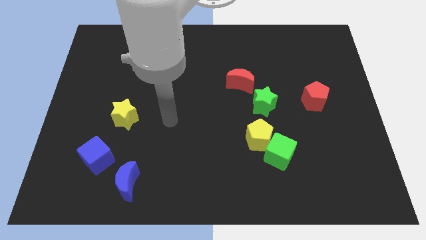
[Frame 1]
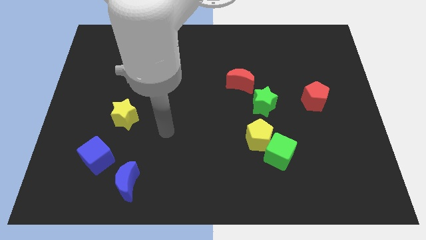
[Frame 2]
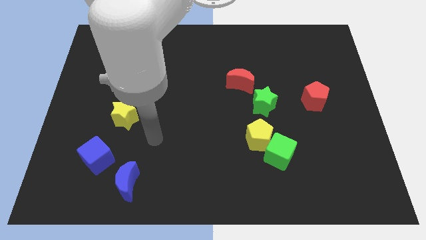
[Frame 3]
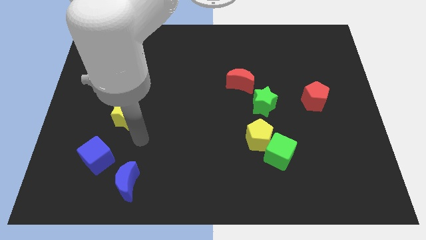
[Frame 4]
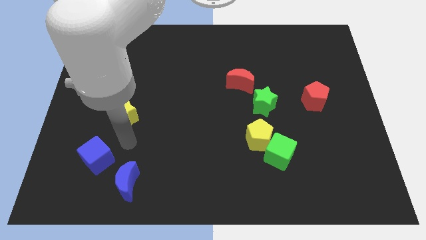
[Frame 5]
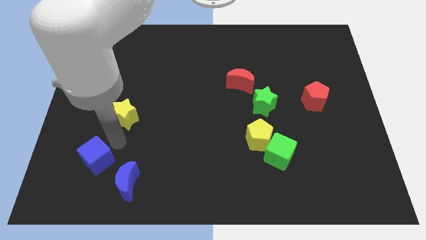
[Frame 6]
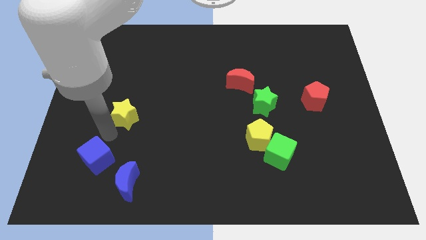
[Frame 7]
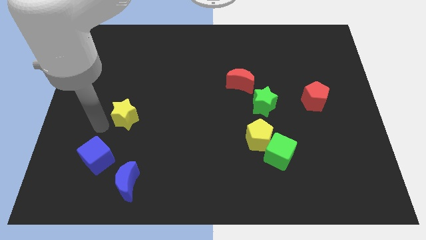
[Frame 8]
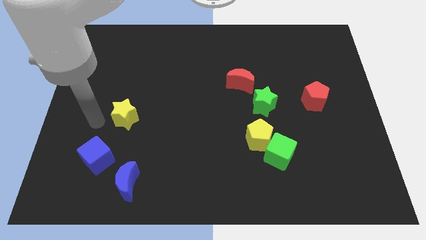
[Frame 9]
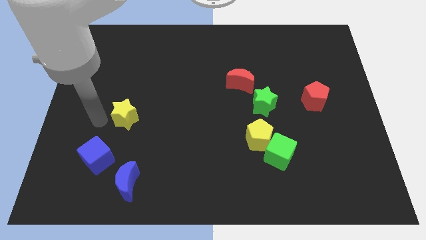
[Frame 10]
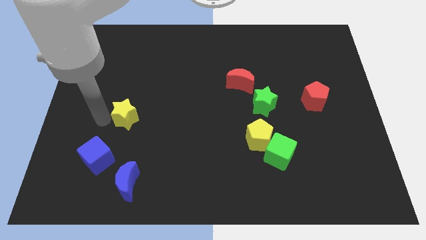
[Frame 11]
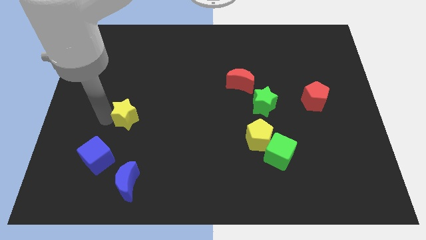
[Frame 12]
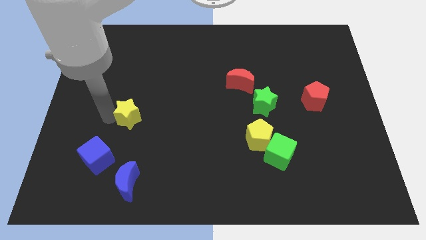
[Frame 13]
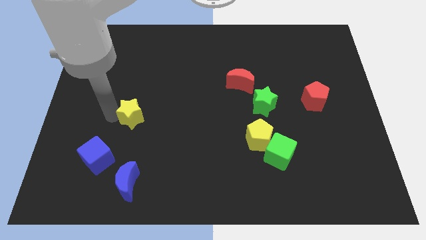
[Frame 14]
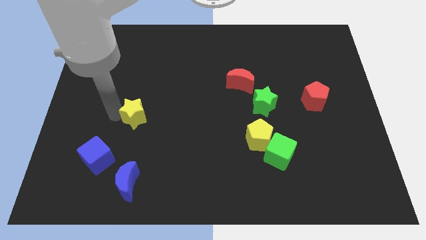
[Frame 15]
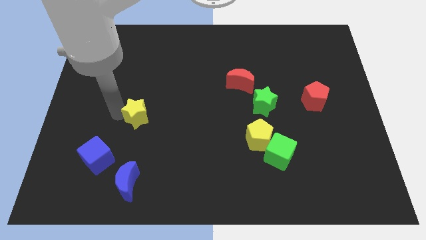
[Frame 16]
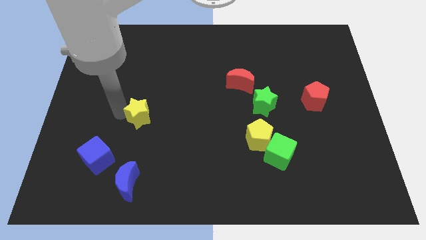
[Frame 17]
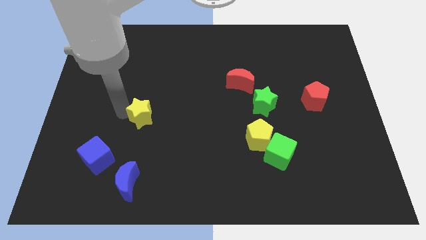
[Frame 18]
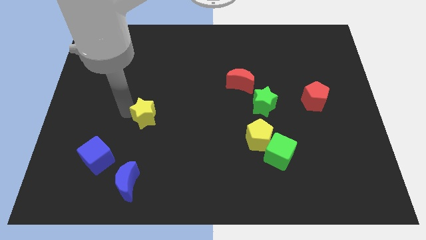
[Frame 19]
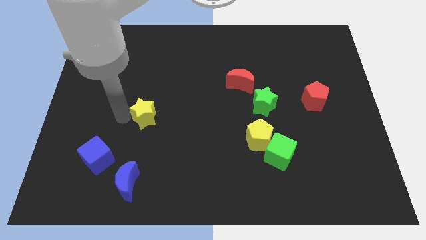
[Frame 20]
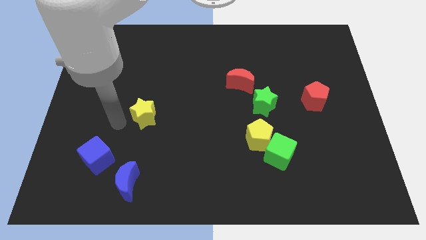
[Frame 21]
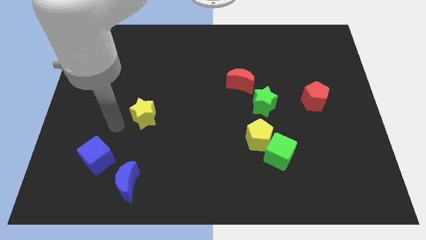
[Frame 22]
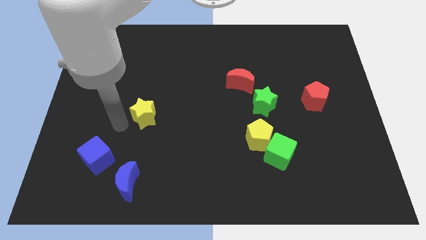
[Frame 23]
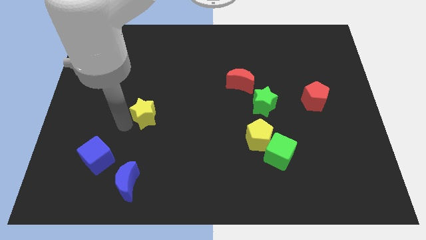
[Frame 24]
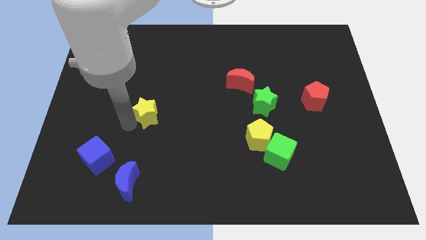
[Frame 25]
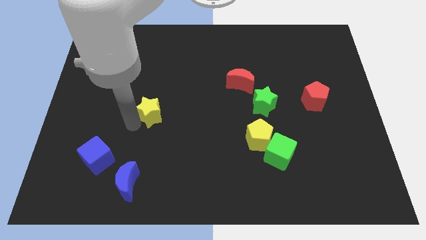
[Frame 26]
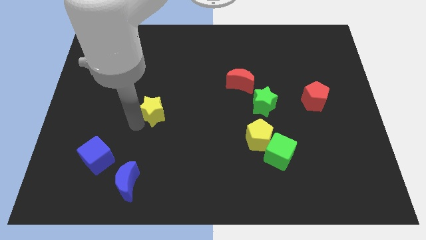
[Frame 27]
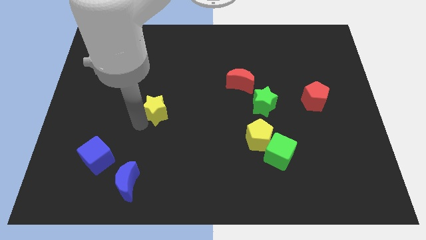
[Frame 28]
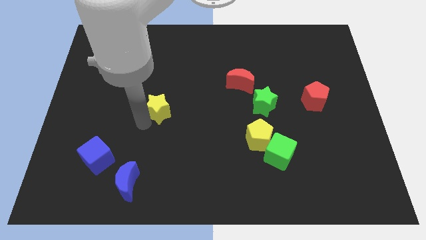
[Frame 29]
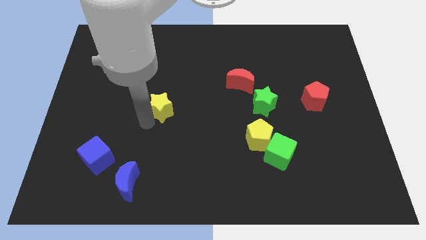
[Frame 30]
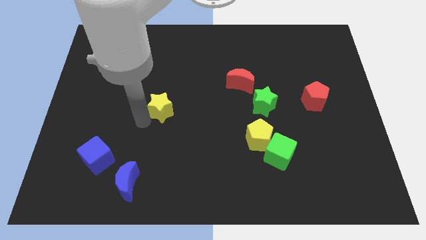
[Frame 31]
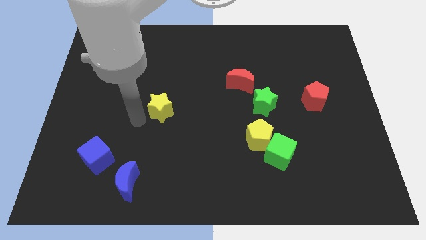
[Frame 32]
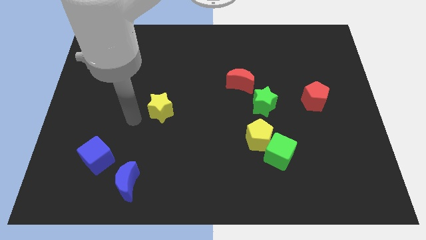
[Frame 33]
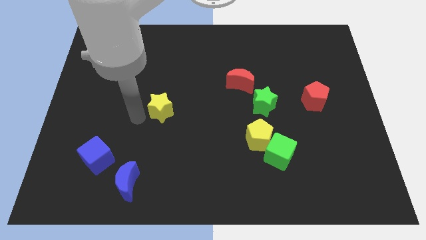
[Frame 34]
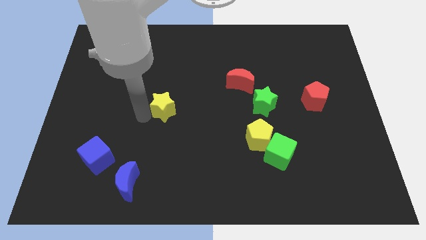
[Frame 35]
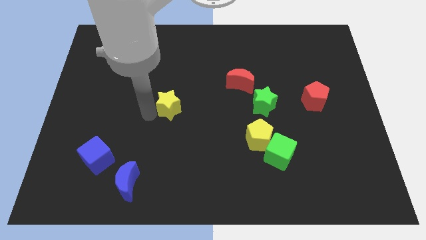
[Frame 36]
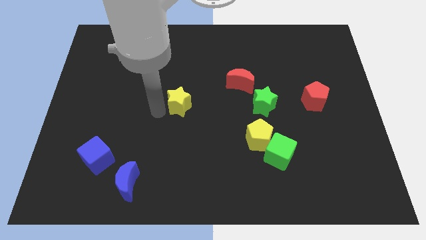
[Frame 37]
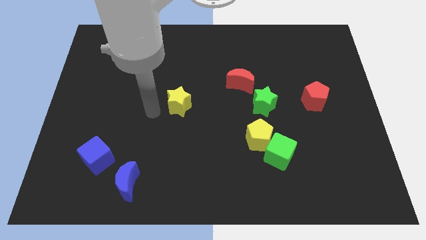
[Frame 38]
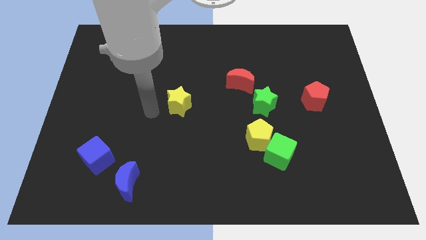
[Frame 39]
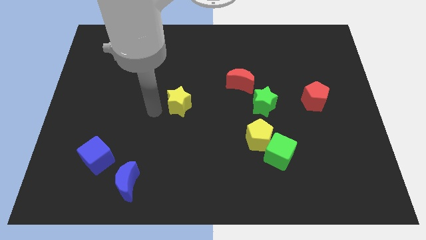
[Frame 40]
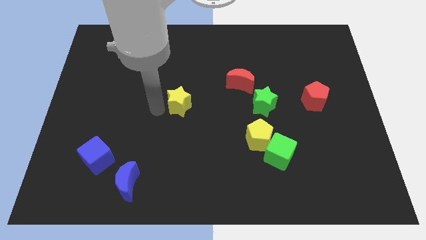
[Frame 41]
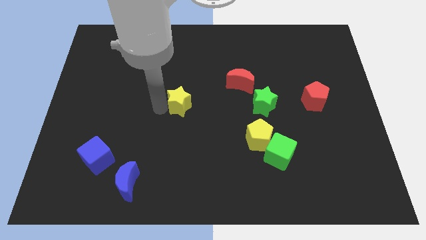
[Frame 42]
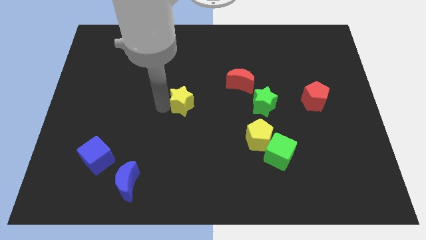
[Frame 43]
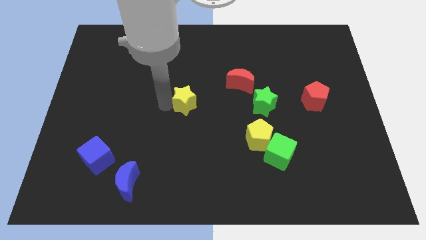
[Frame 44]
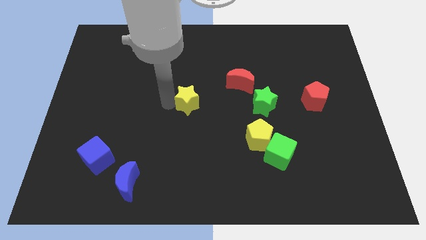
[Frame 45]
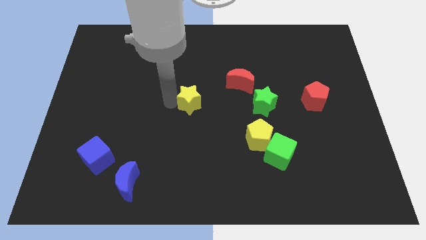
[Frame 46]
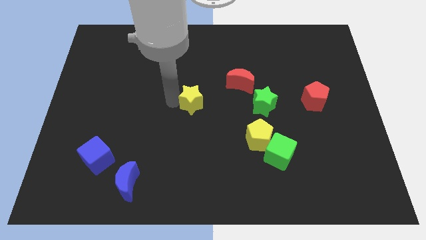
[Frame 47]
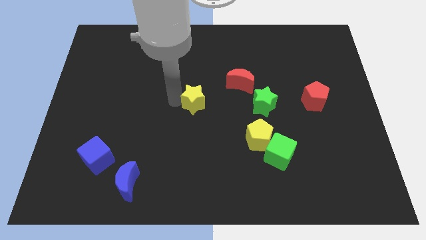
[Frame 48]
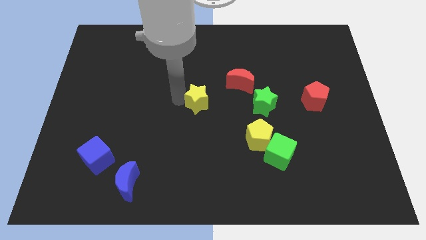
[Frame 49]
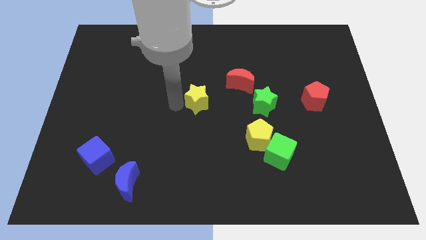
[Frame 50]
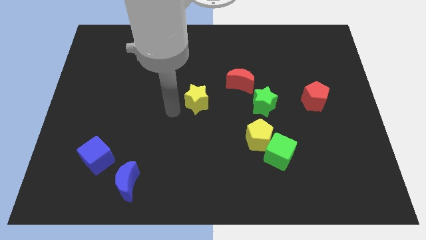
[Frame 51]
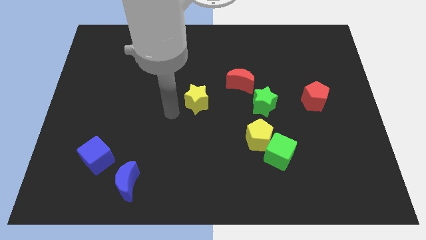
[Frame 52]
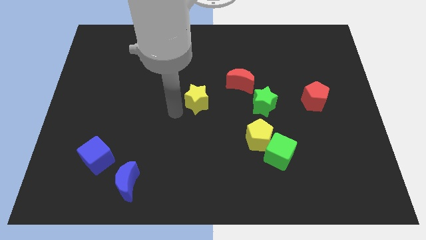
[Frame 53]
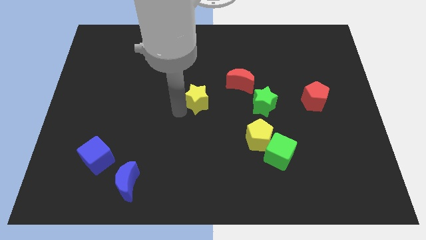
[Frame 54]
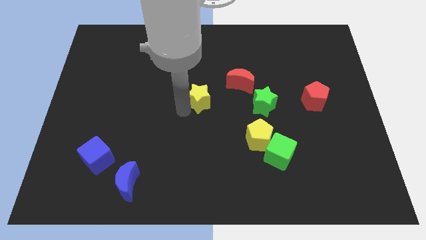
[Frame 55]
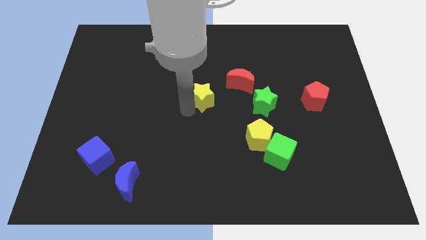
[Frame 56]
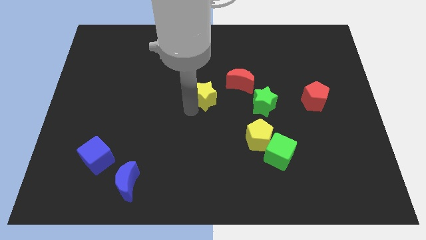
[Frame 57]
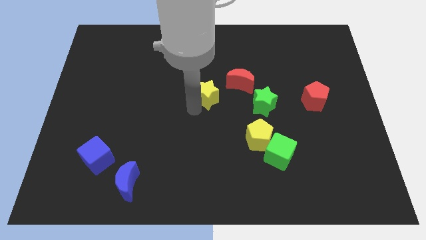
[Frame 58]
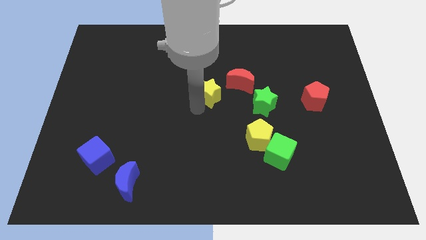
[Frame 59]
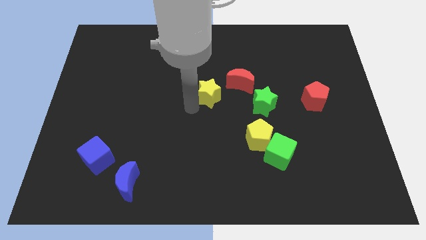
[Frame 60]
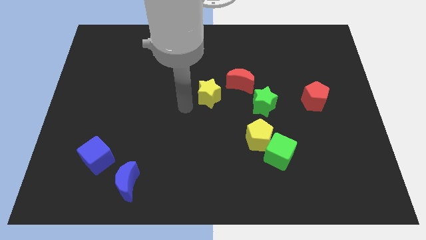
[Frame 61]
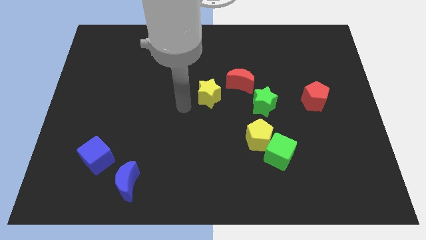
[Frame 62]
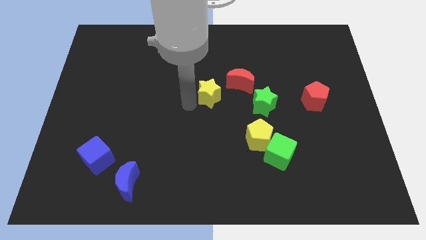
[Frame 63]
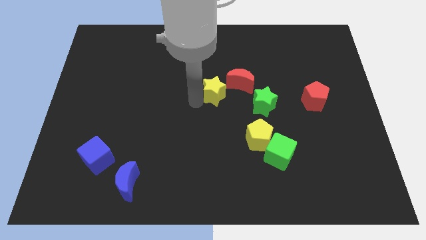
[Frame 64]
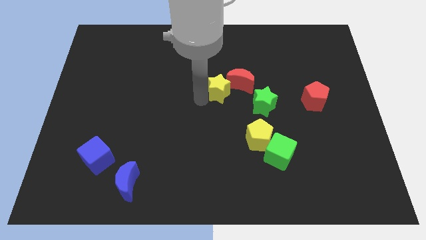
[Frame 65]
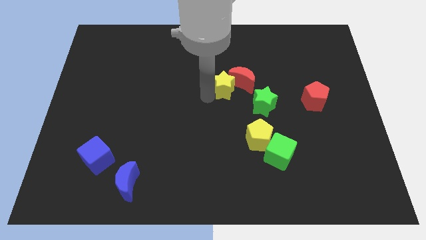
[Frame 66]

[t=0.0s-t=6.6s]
put the yellow star next to the red moon

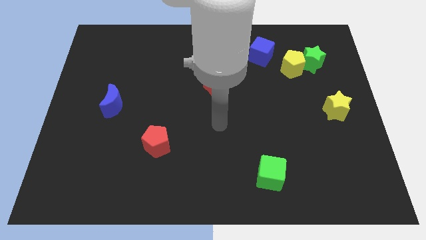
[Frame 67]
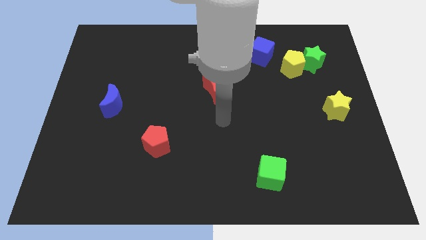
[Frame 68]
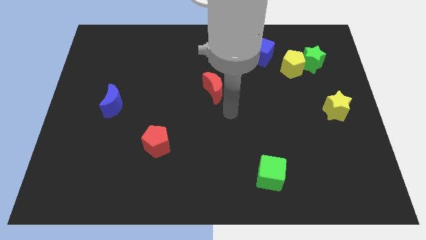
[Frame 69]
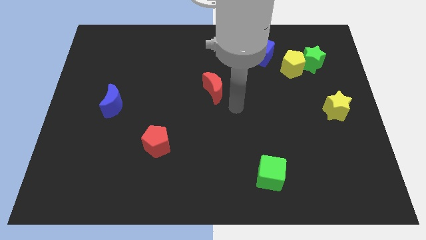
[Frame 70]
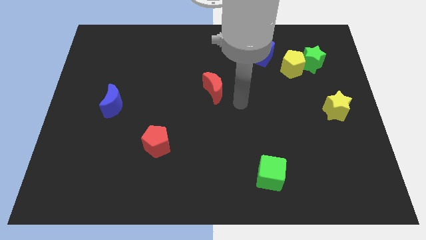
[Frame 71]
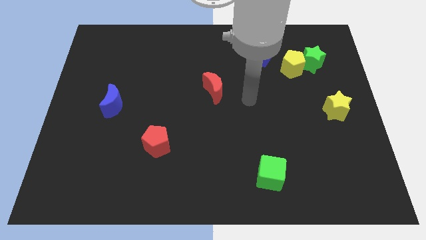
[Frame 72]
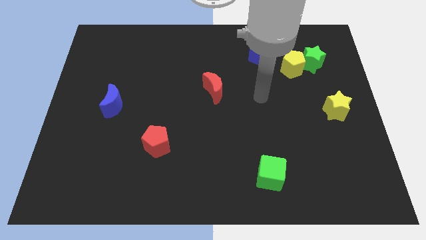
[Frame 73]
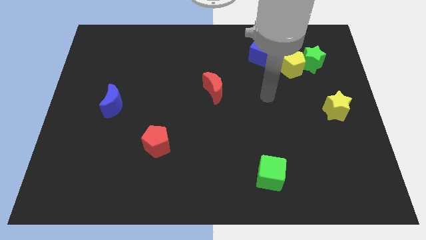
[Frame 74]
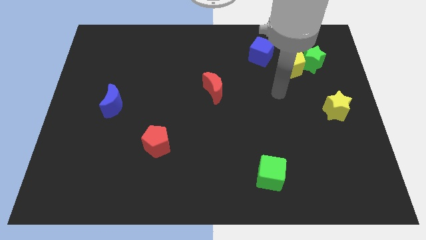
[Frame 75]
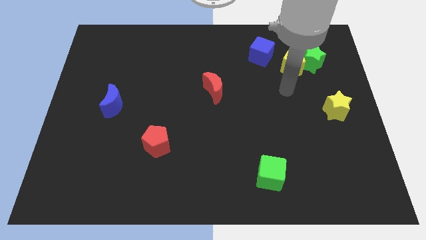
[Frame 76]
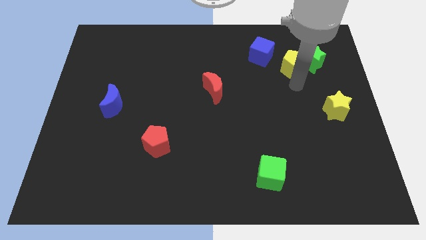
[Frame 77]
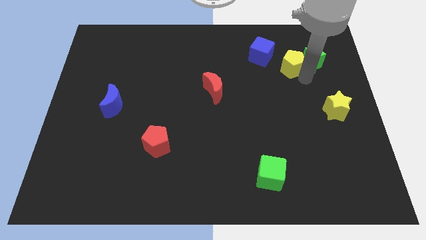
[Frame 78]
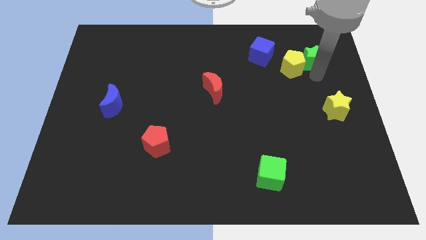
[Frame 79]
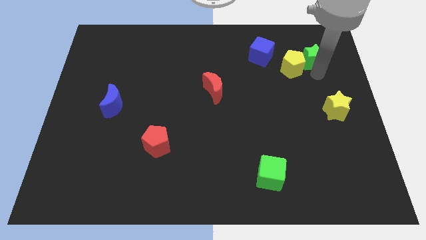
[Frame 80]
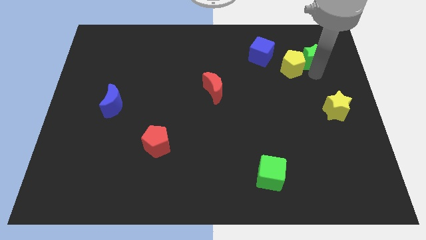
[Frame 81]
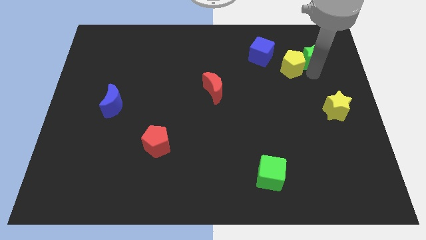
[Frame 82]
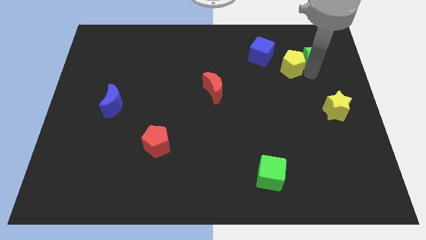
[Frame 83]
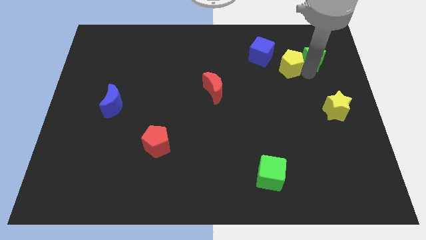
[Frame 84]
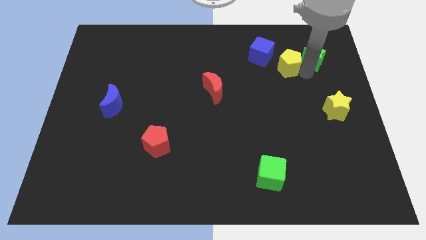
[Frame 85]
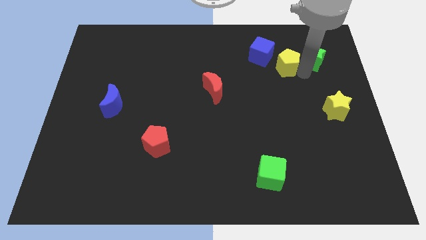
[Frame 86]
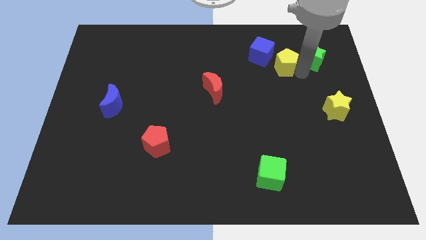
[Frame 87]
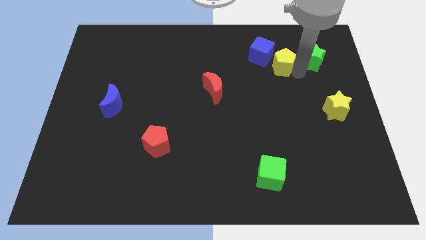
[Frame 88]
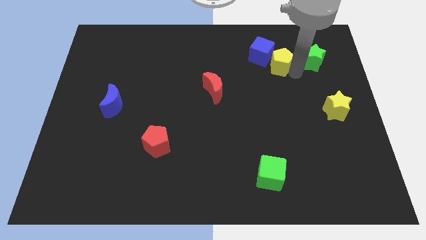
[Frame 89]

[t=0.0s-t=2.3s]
push the yellow pentagon towards the blue cube
